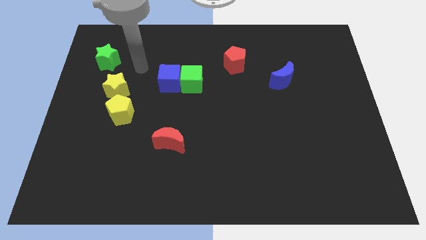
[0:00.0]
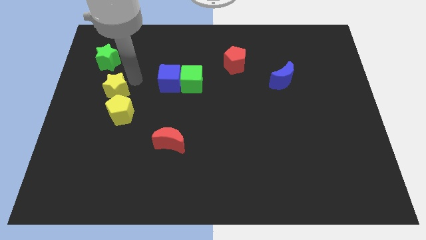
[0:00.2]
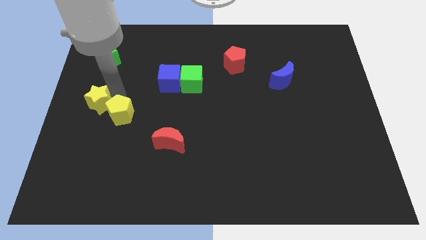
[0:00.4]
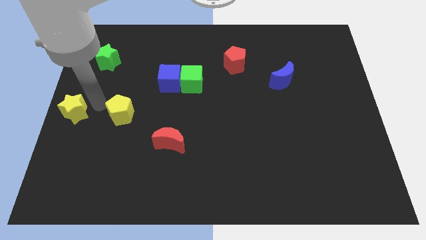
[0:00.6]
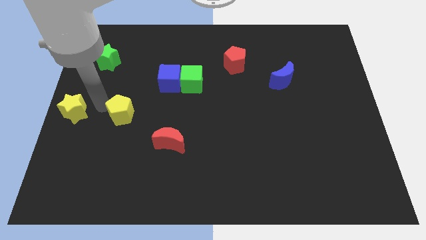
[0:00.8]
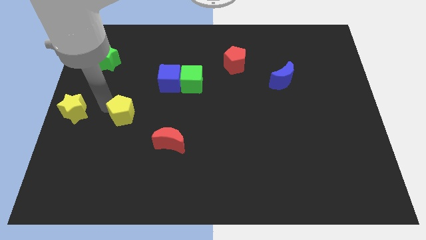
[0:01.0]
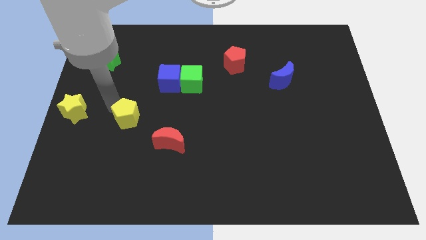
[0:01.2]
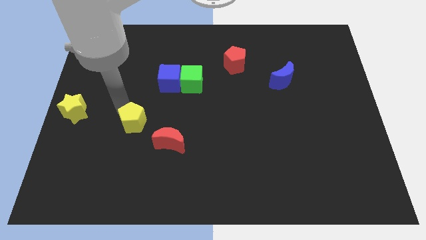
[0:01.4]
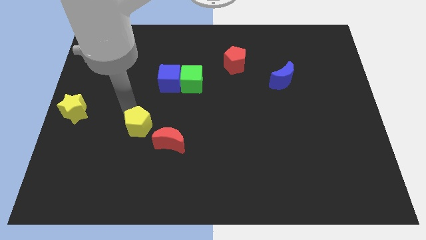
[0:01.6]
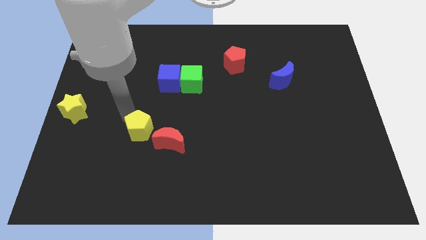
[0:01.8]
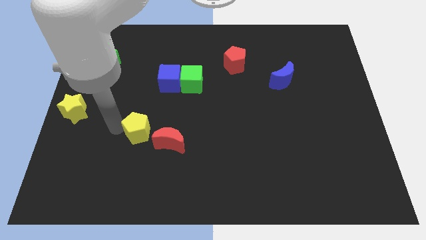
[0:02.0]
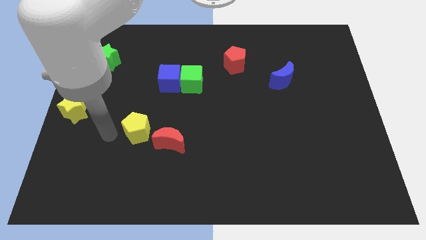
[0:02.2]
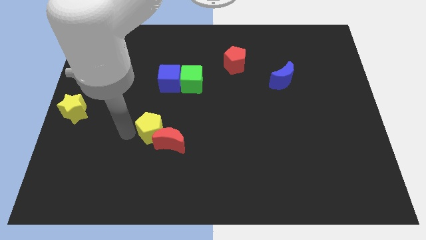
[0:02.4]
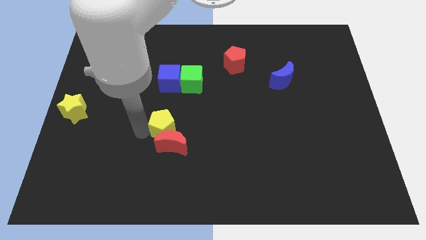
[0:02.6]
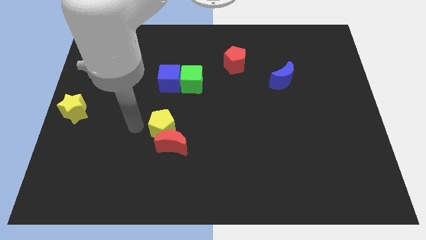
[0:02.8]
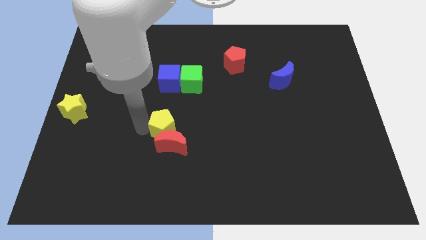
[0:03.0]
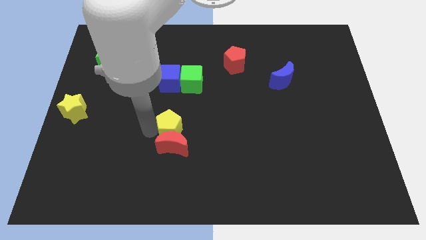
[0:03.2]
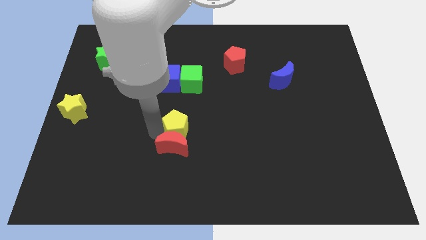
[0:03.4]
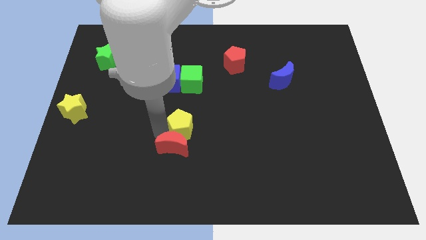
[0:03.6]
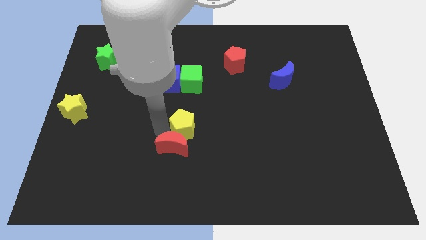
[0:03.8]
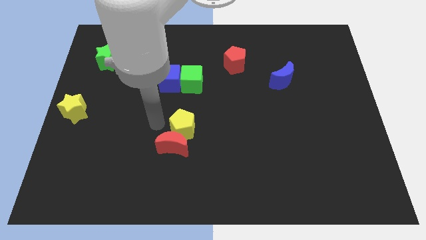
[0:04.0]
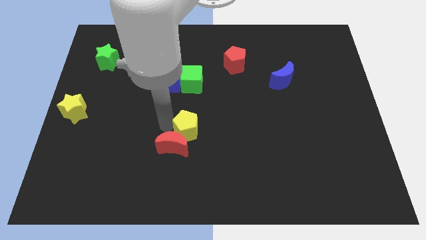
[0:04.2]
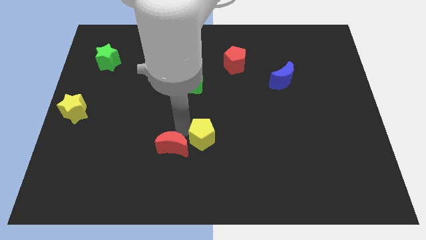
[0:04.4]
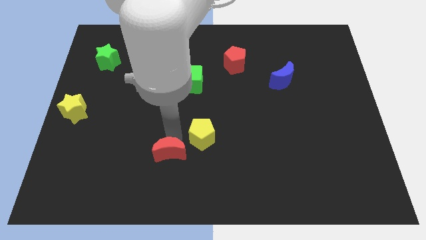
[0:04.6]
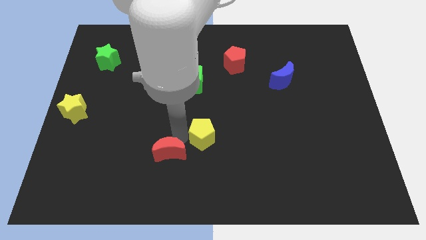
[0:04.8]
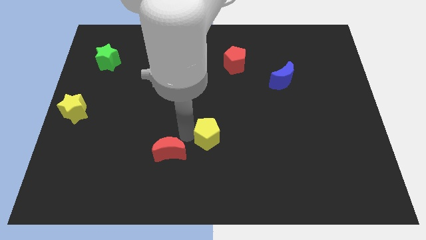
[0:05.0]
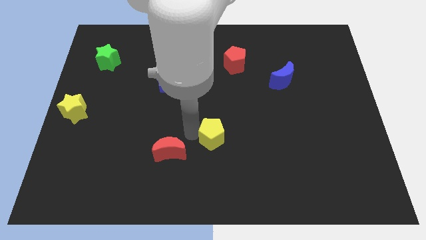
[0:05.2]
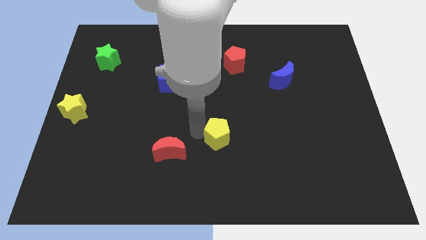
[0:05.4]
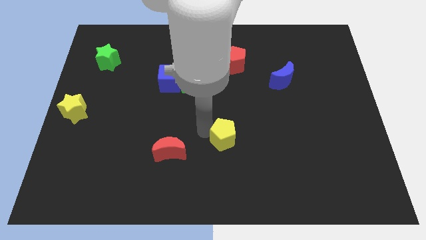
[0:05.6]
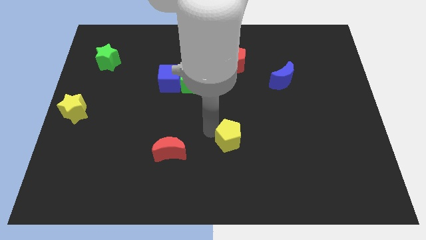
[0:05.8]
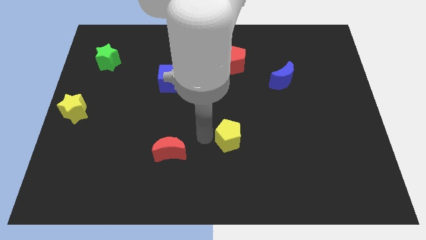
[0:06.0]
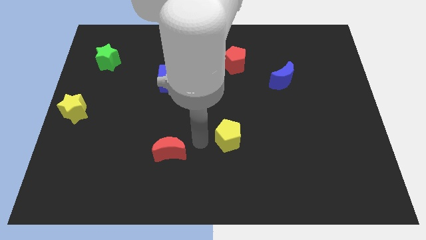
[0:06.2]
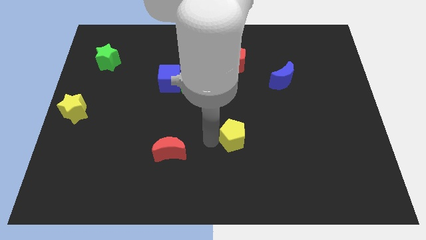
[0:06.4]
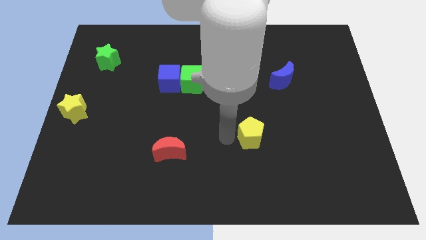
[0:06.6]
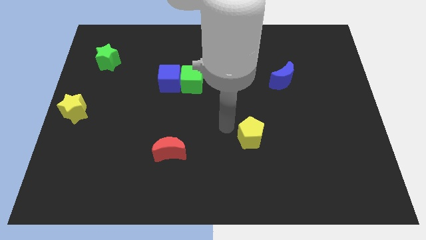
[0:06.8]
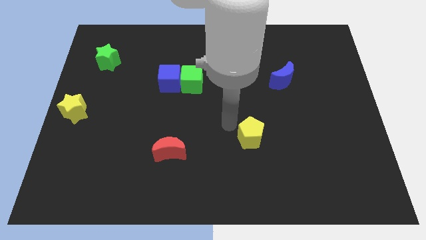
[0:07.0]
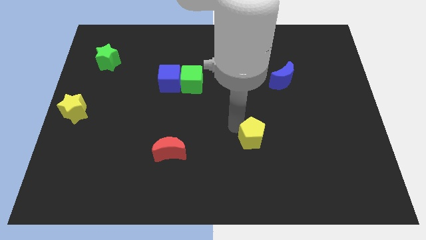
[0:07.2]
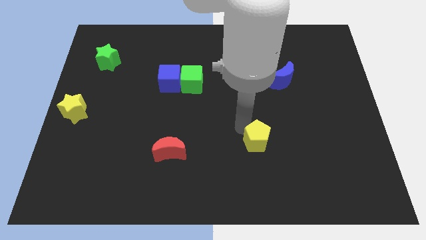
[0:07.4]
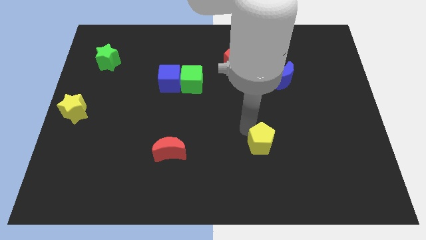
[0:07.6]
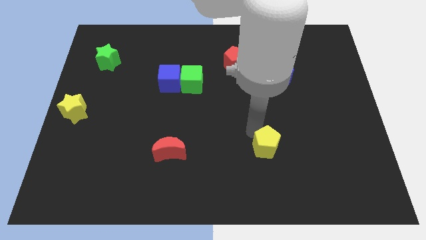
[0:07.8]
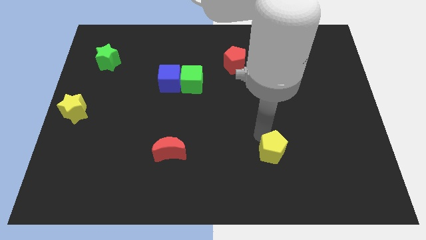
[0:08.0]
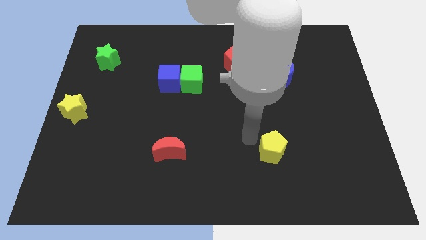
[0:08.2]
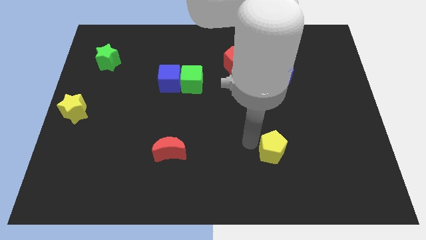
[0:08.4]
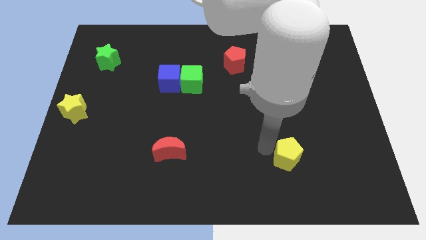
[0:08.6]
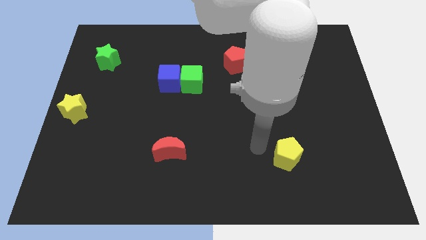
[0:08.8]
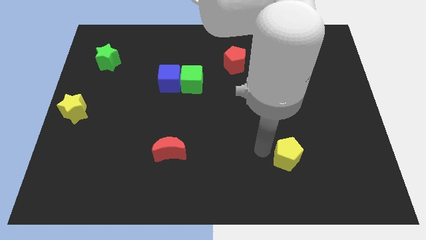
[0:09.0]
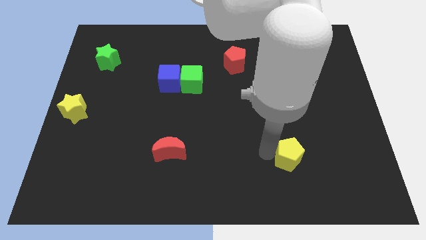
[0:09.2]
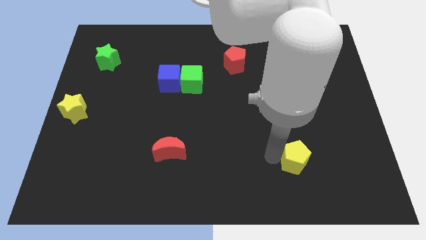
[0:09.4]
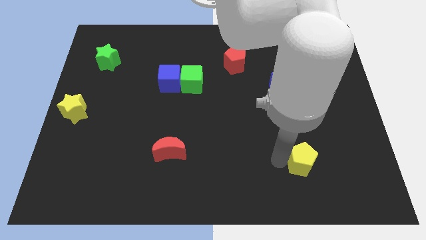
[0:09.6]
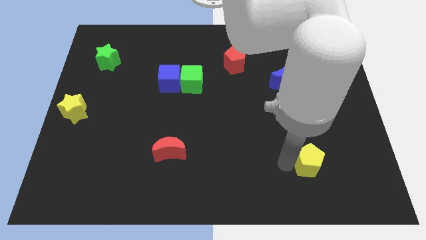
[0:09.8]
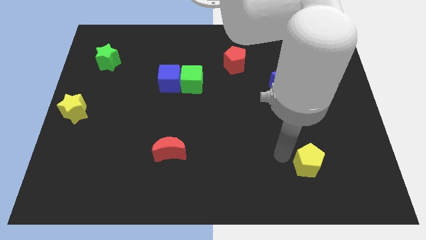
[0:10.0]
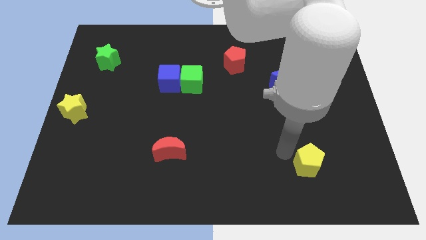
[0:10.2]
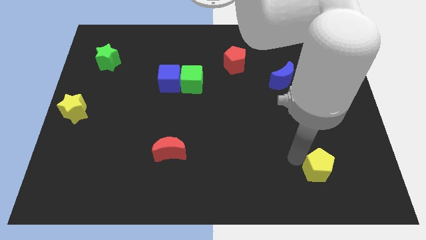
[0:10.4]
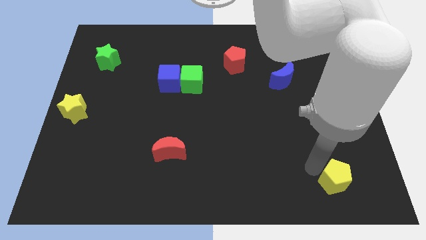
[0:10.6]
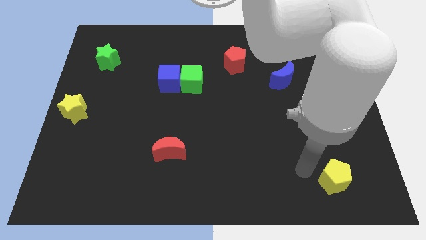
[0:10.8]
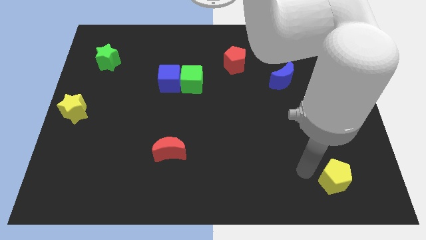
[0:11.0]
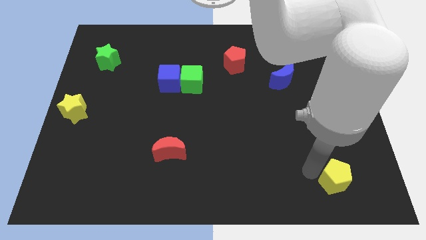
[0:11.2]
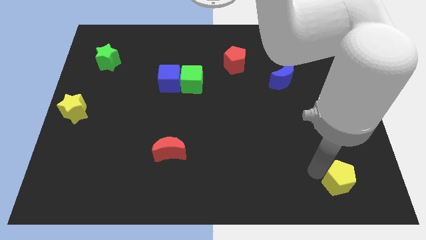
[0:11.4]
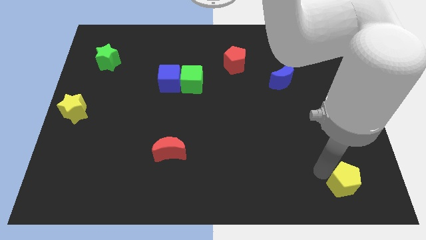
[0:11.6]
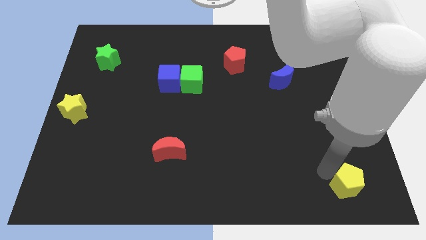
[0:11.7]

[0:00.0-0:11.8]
push the yellow pentagon to the bottom right of the board
